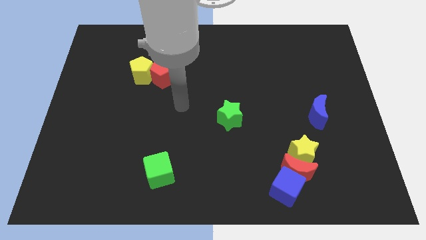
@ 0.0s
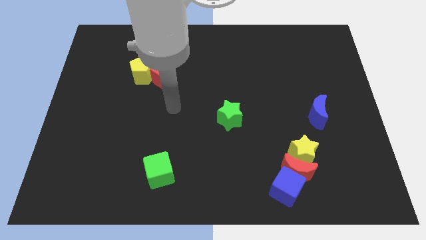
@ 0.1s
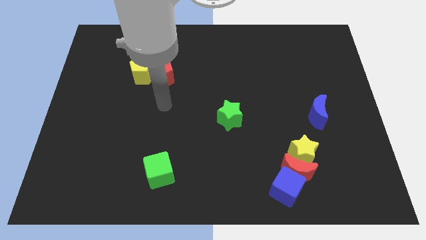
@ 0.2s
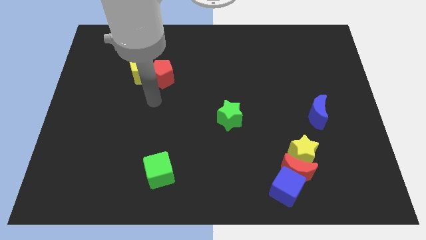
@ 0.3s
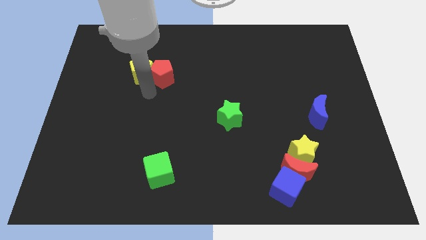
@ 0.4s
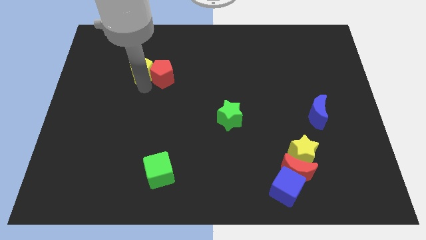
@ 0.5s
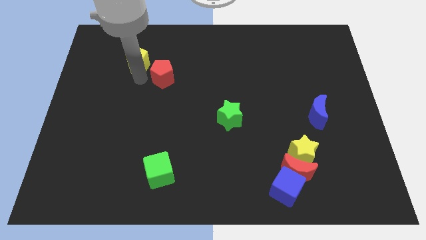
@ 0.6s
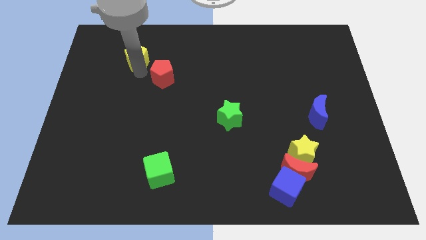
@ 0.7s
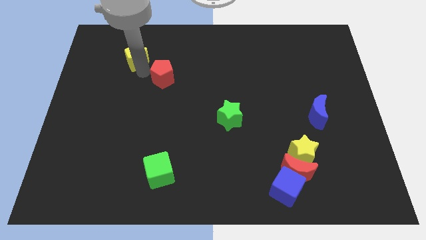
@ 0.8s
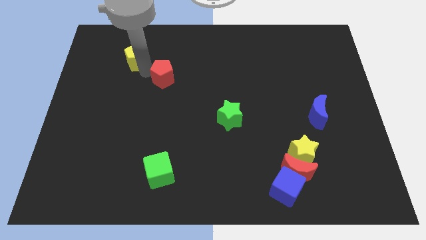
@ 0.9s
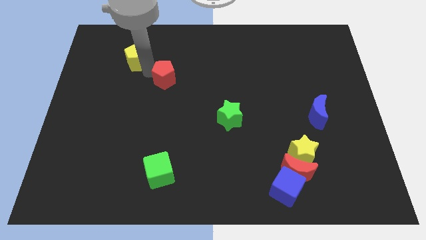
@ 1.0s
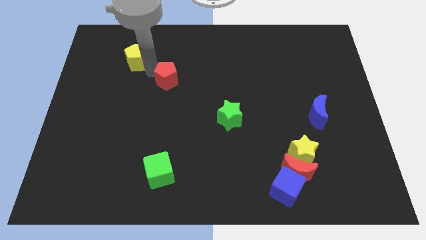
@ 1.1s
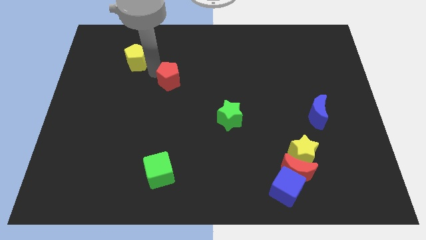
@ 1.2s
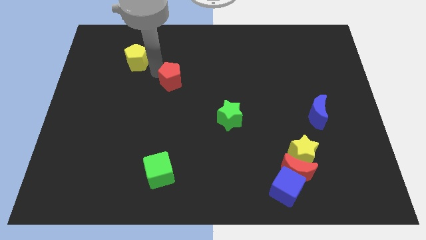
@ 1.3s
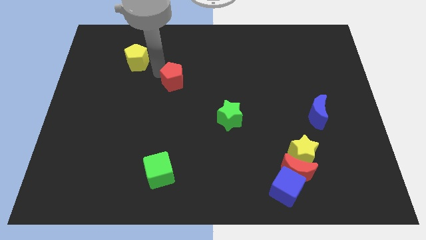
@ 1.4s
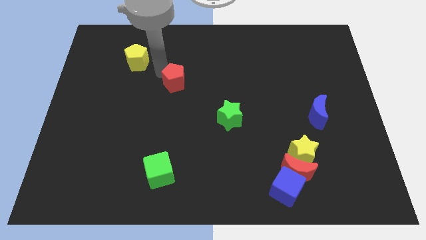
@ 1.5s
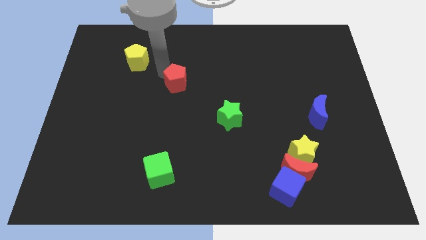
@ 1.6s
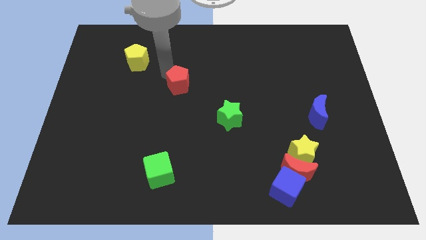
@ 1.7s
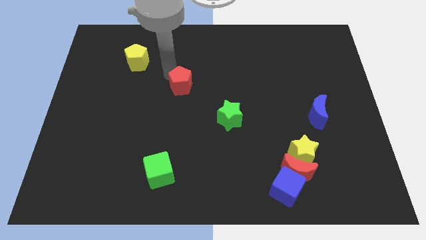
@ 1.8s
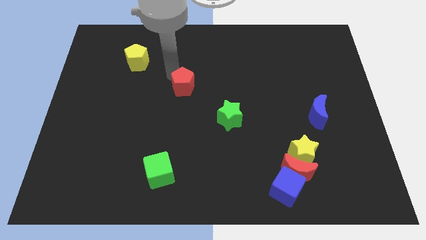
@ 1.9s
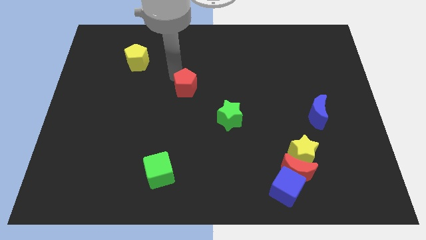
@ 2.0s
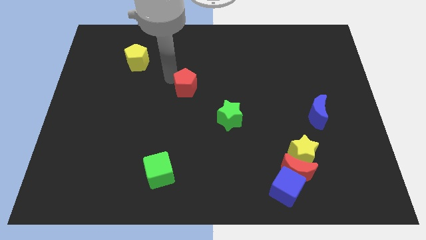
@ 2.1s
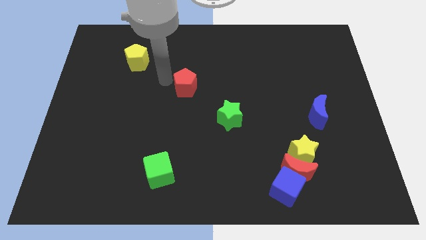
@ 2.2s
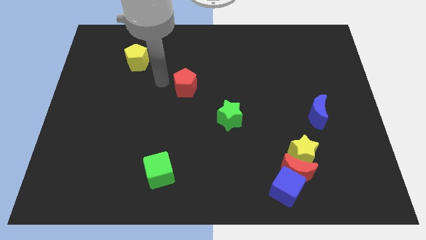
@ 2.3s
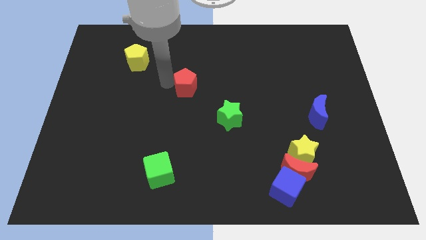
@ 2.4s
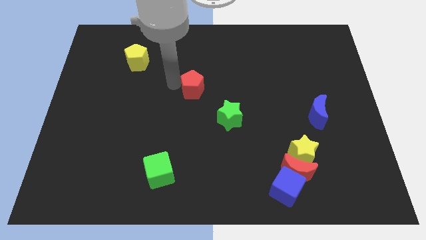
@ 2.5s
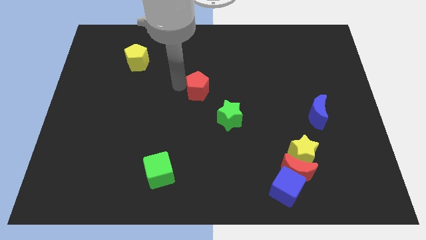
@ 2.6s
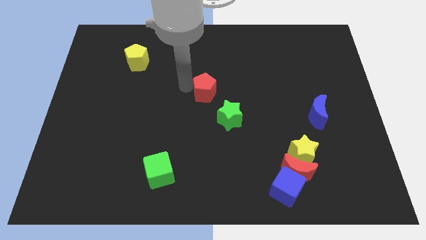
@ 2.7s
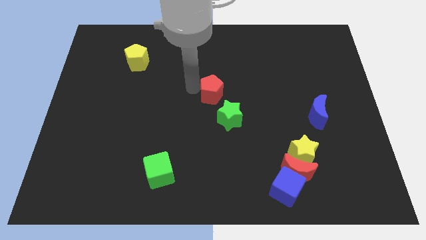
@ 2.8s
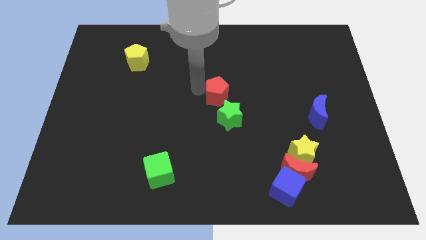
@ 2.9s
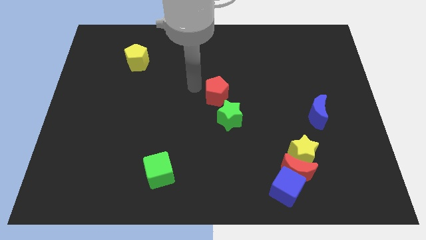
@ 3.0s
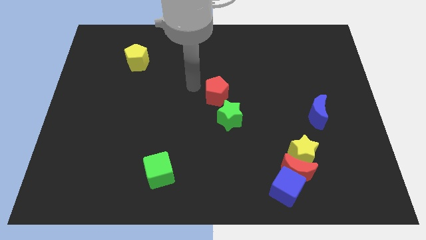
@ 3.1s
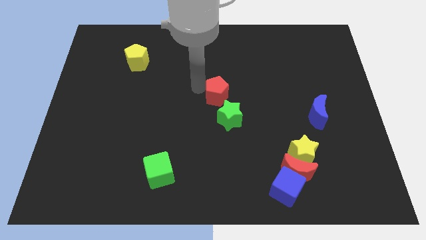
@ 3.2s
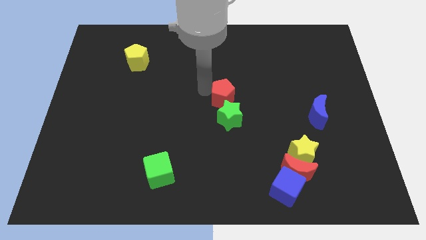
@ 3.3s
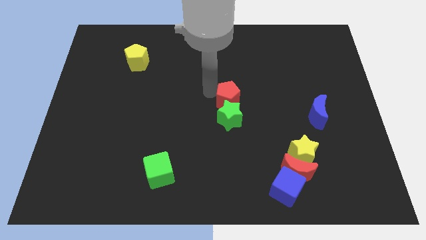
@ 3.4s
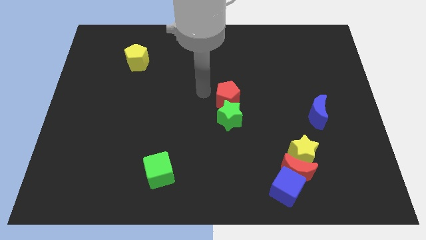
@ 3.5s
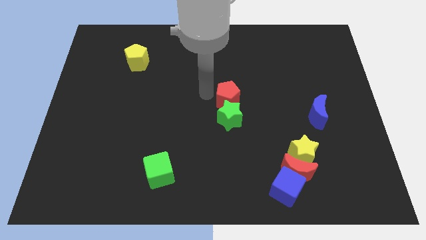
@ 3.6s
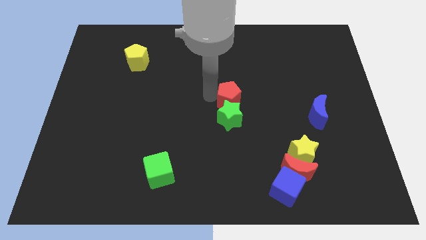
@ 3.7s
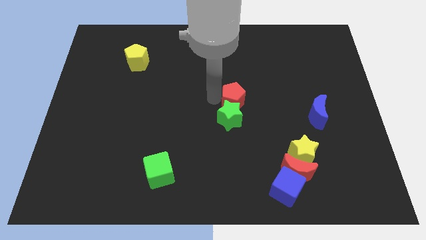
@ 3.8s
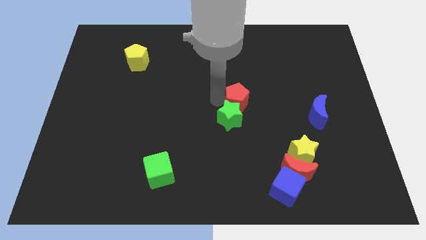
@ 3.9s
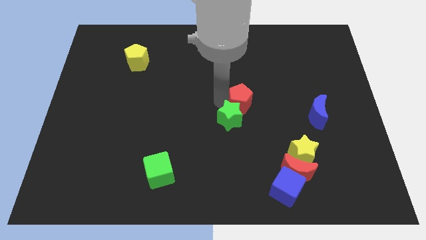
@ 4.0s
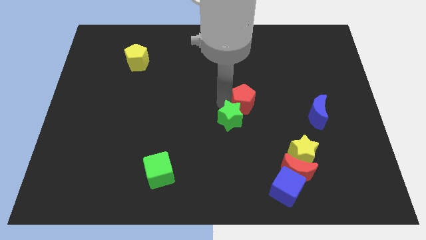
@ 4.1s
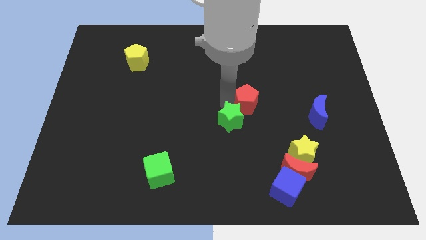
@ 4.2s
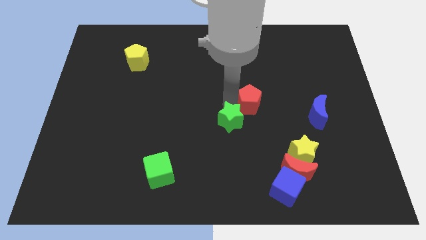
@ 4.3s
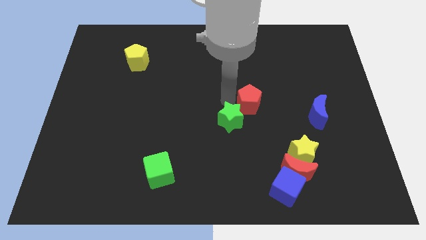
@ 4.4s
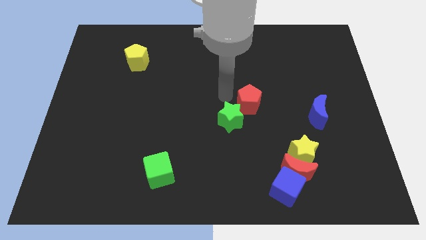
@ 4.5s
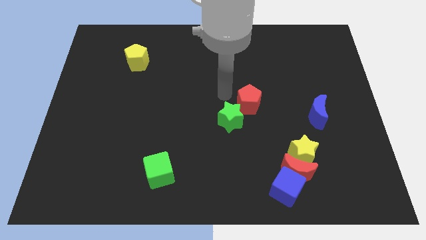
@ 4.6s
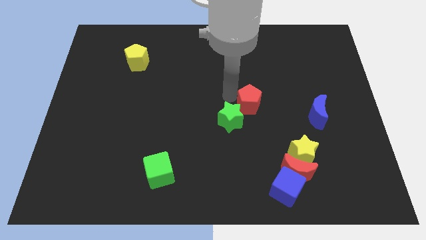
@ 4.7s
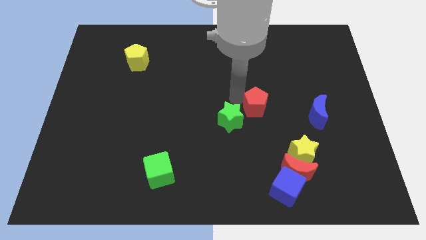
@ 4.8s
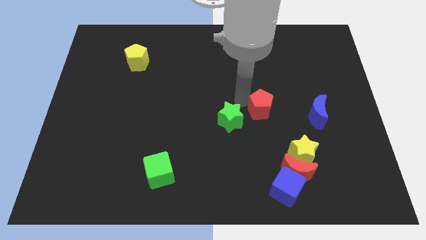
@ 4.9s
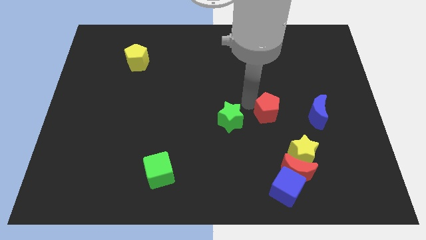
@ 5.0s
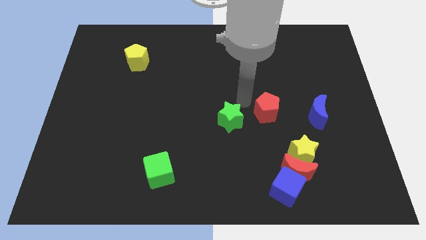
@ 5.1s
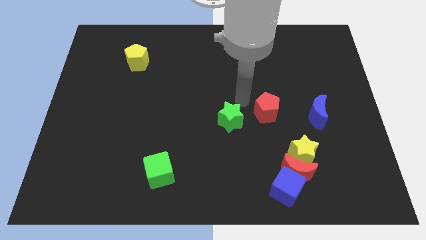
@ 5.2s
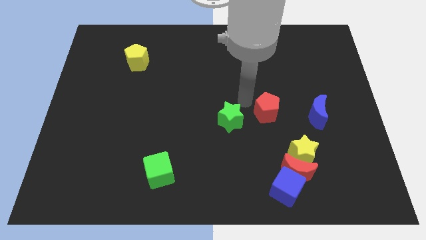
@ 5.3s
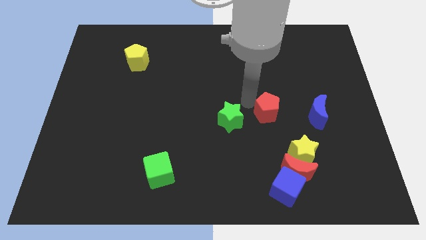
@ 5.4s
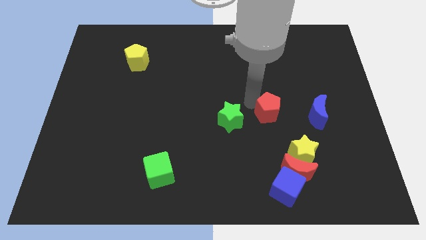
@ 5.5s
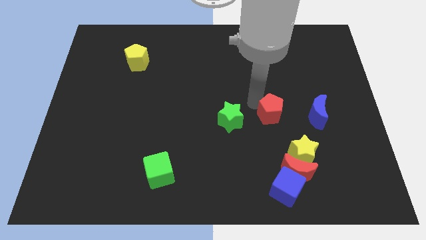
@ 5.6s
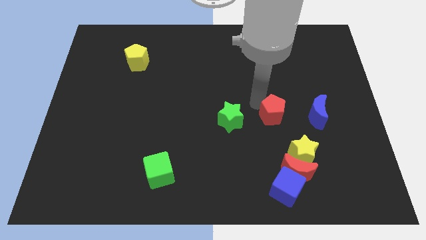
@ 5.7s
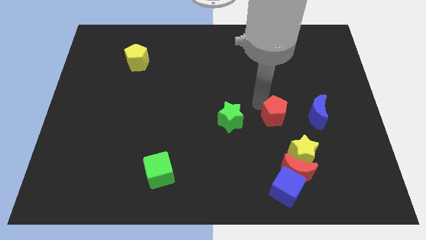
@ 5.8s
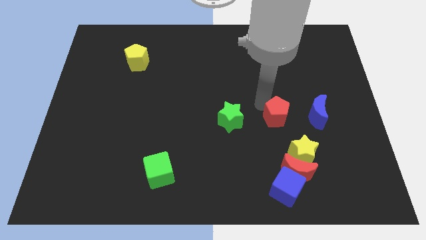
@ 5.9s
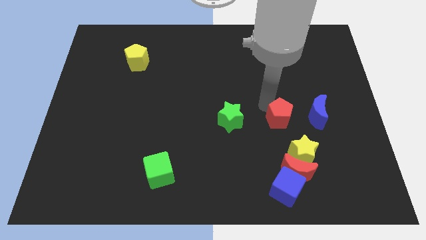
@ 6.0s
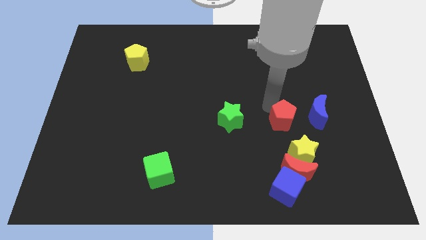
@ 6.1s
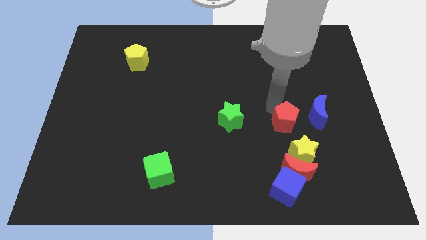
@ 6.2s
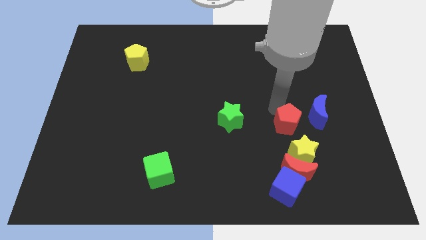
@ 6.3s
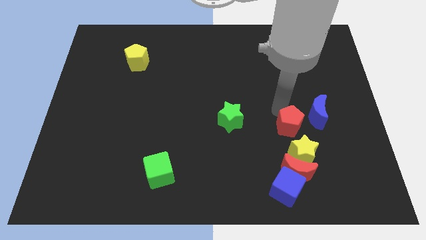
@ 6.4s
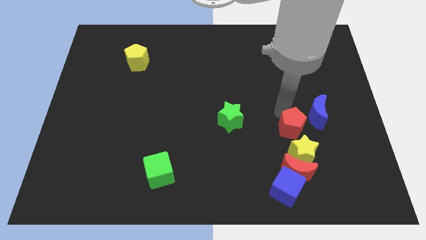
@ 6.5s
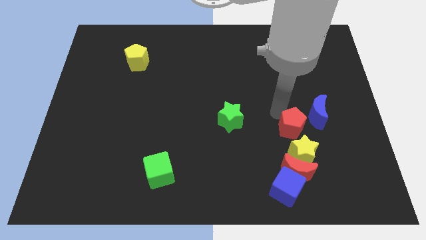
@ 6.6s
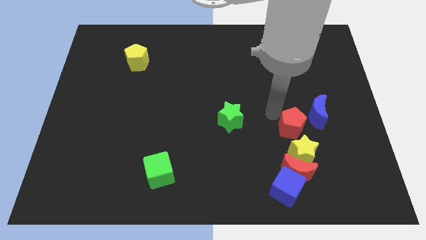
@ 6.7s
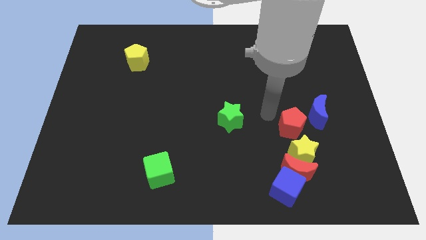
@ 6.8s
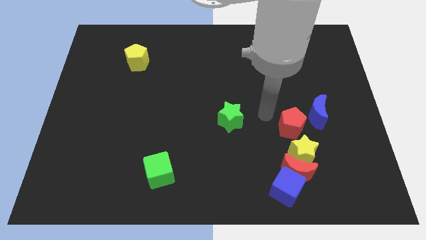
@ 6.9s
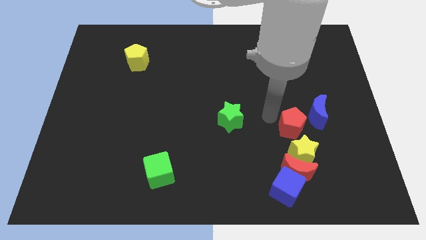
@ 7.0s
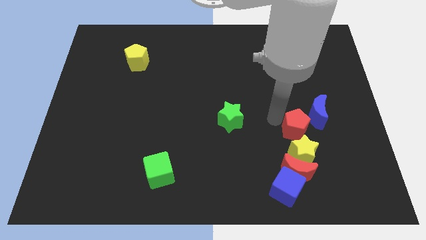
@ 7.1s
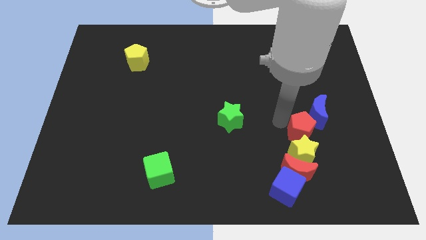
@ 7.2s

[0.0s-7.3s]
move the red pentagon to the bottom of the blue moon
